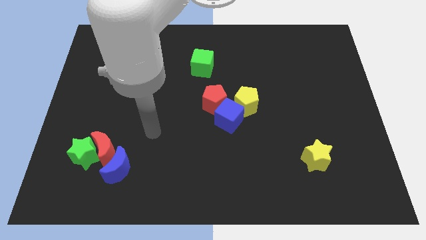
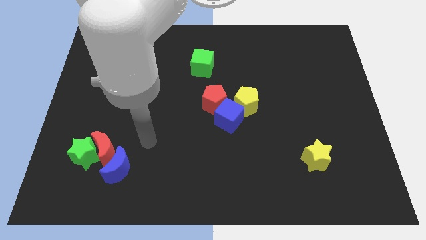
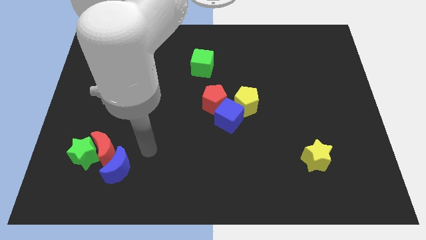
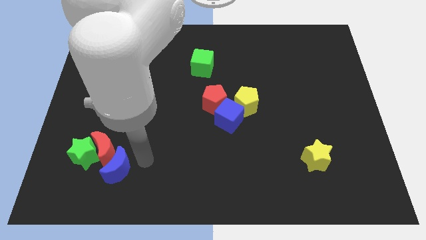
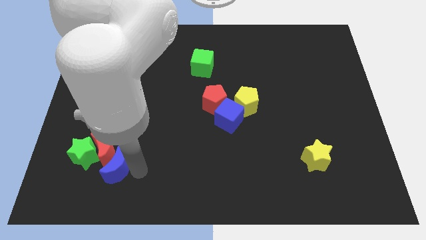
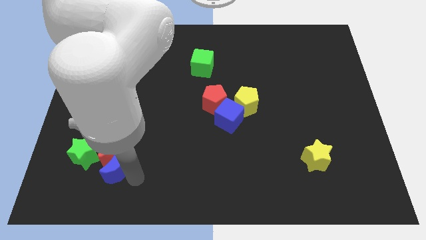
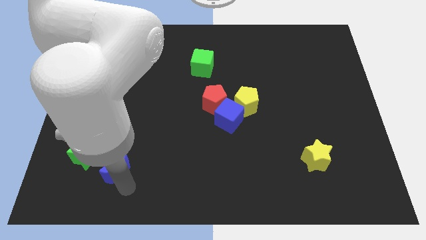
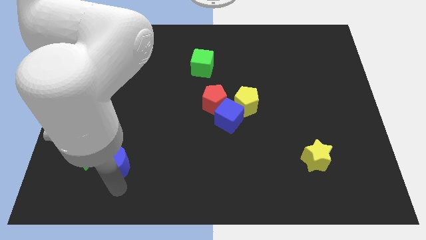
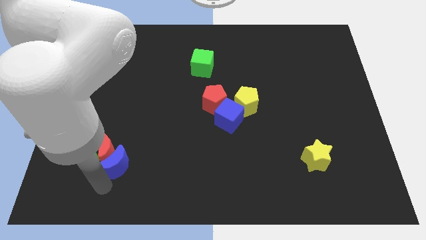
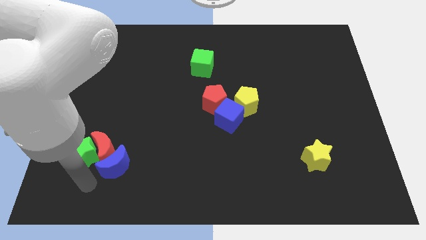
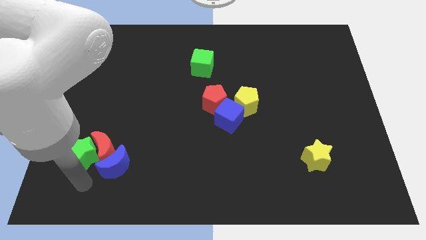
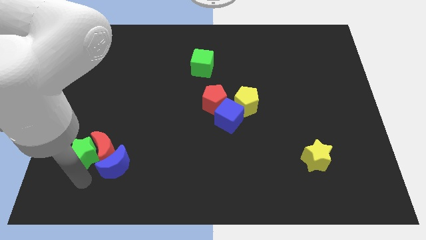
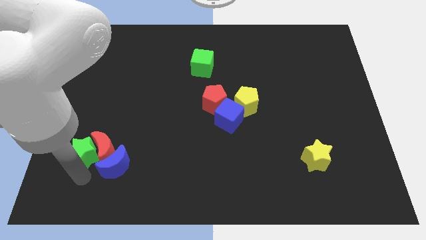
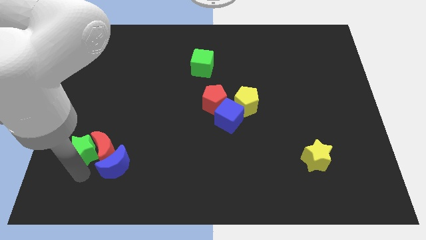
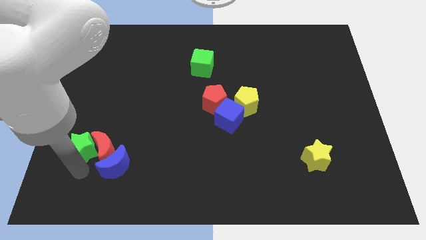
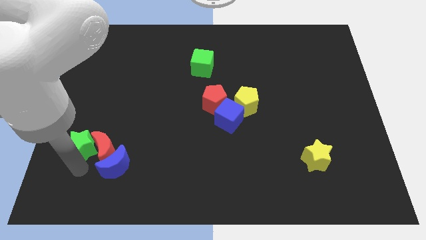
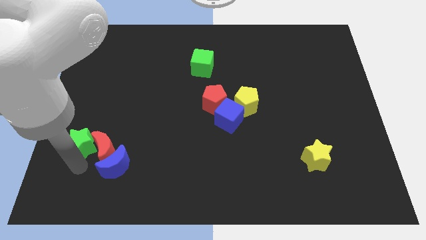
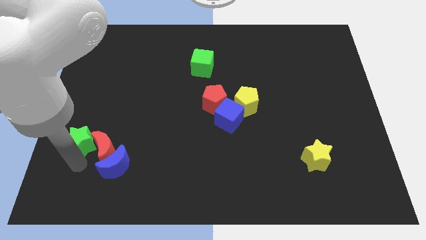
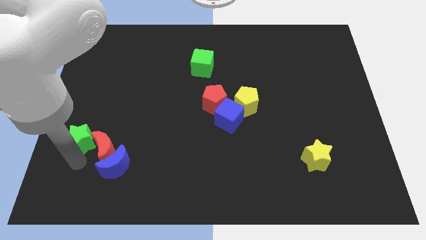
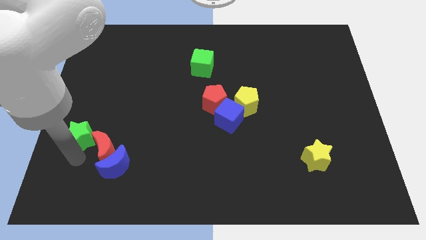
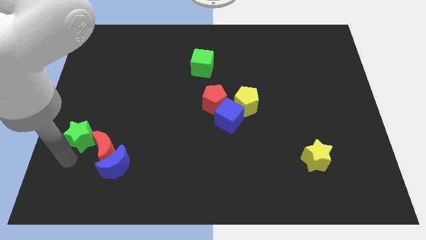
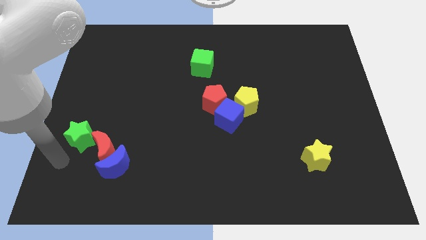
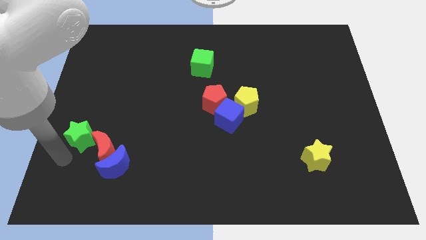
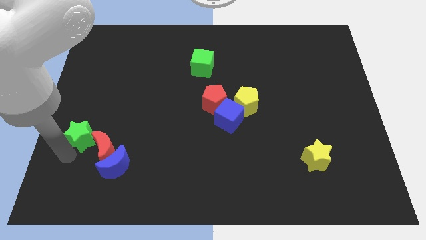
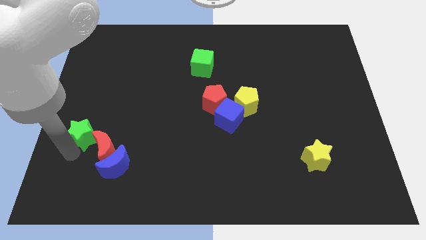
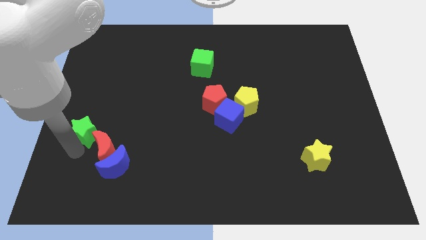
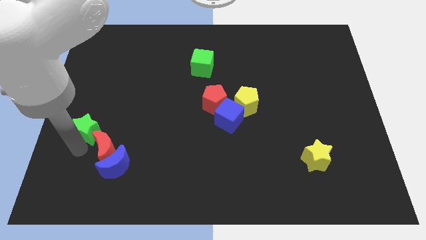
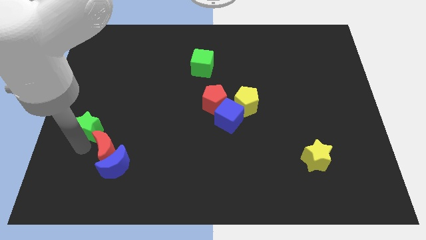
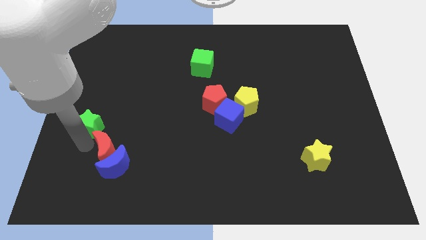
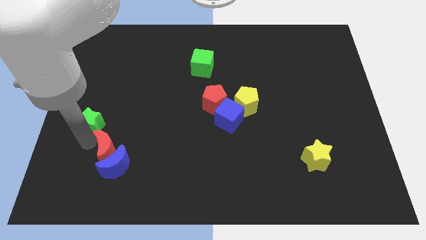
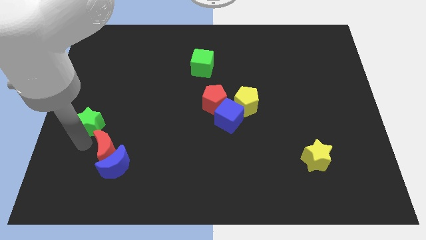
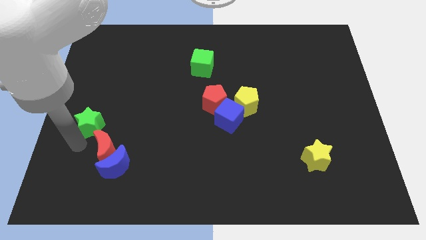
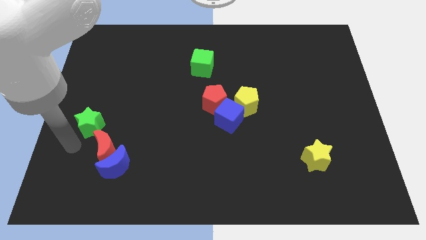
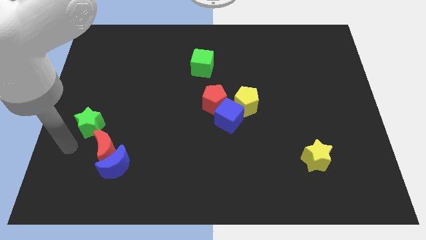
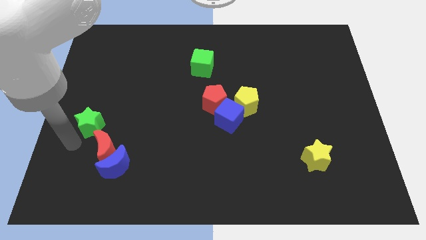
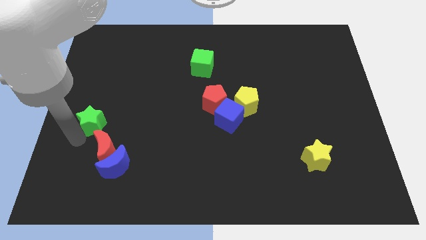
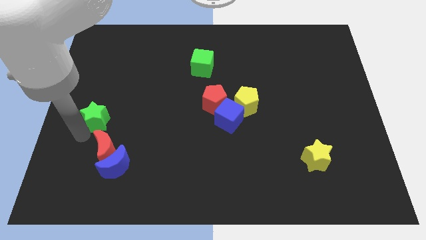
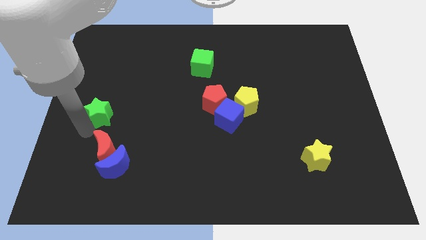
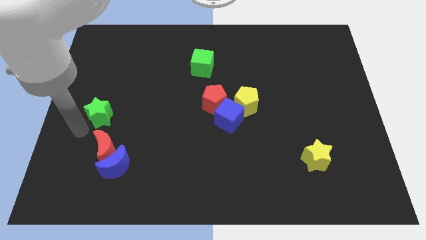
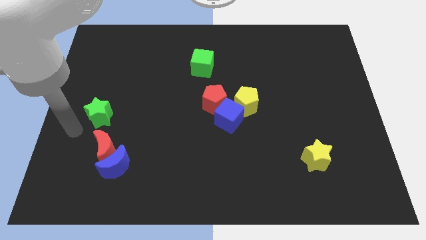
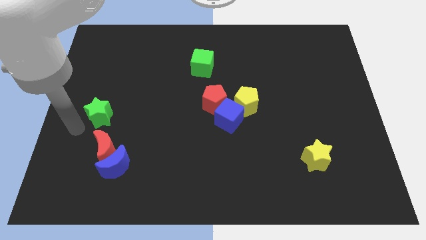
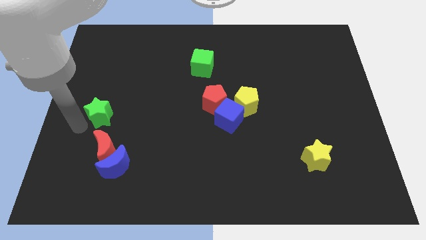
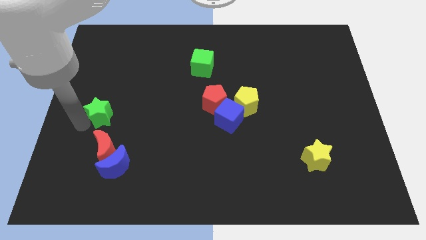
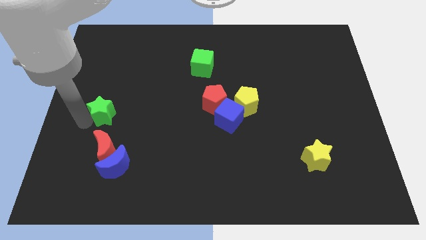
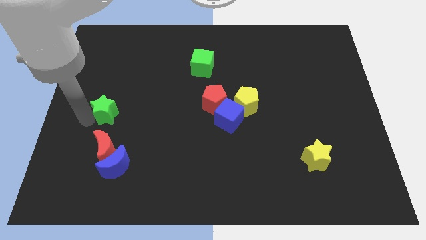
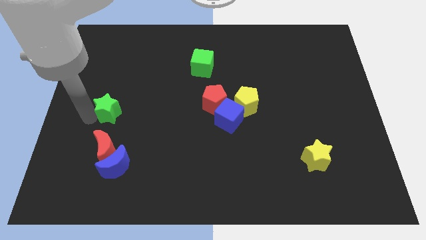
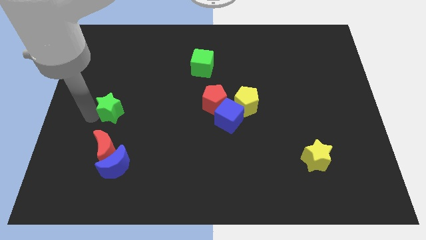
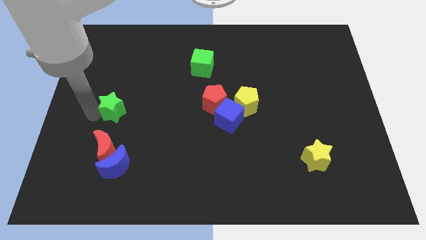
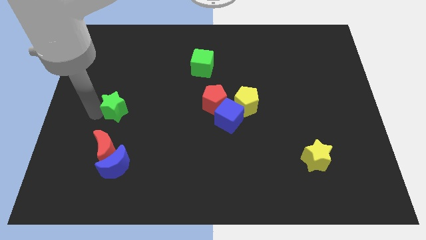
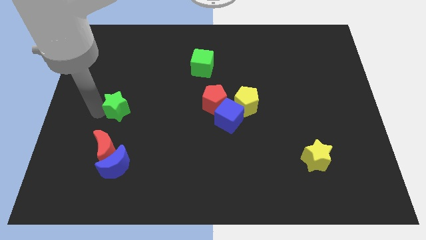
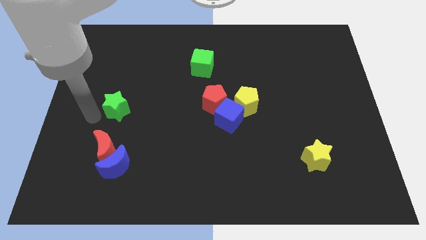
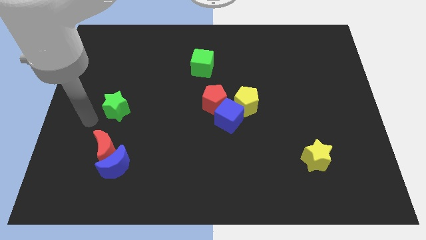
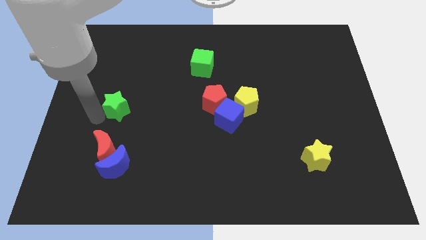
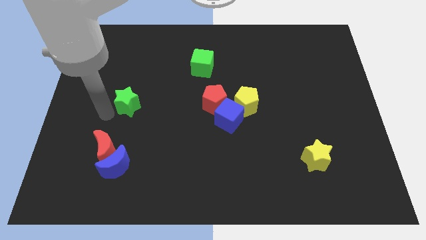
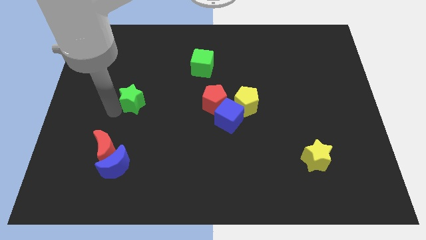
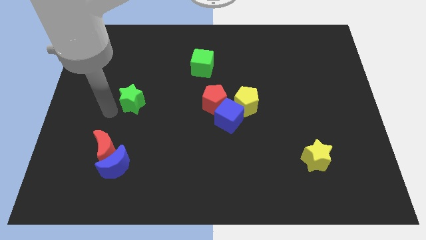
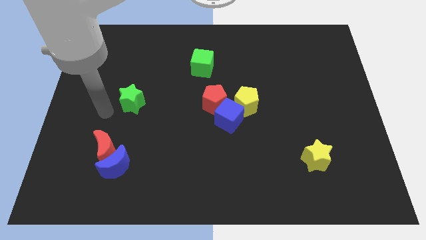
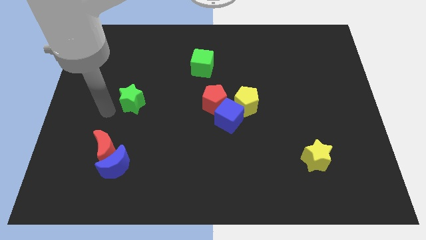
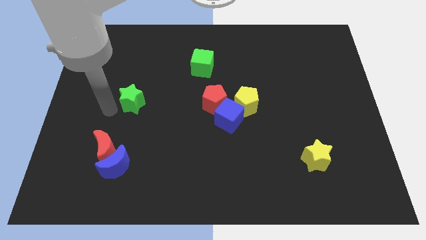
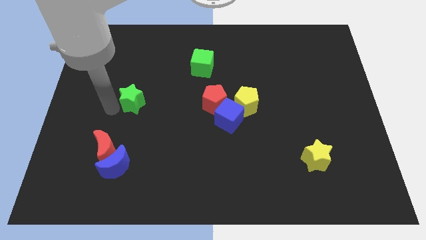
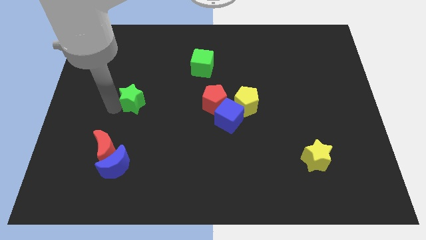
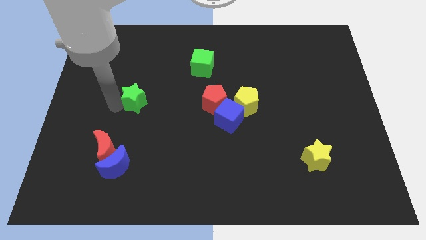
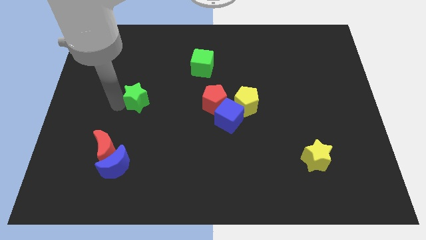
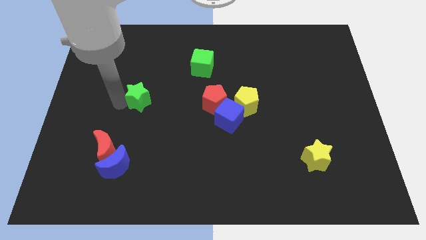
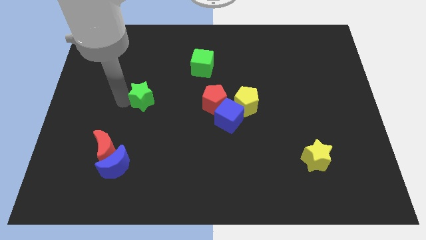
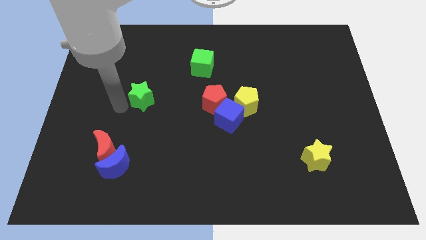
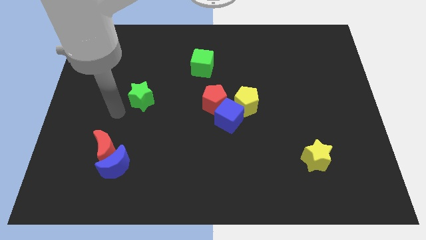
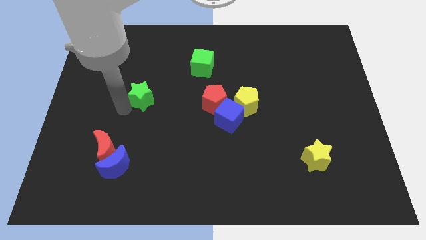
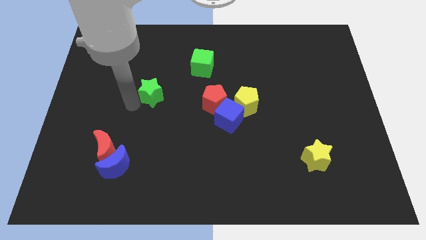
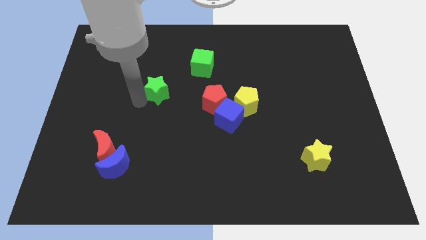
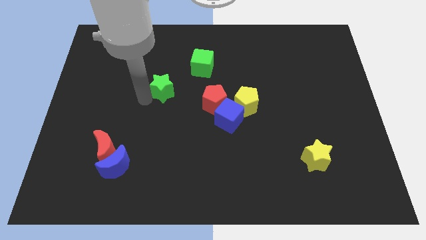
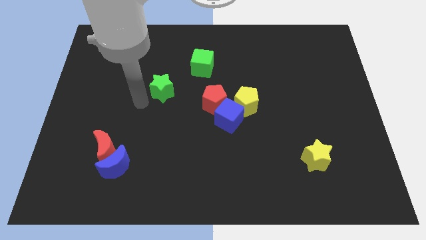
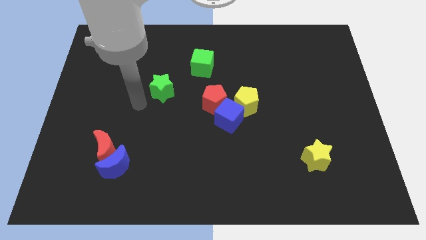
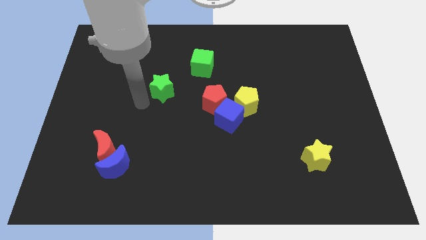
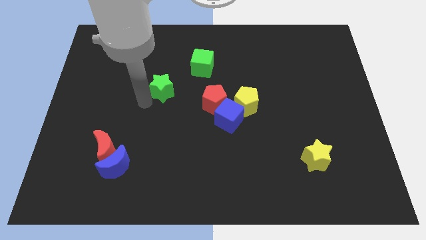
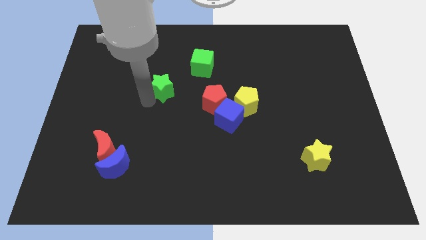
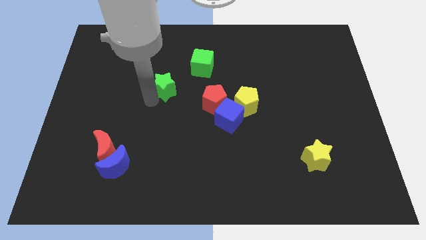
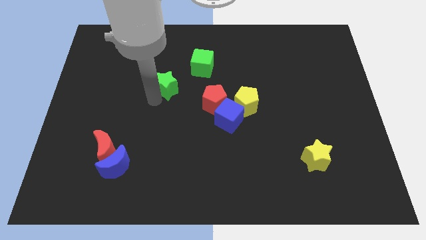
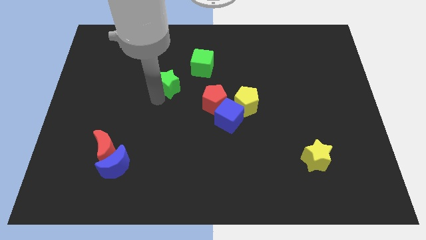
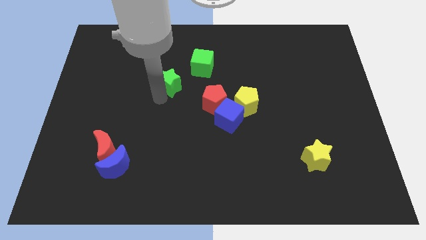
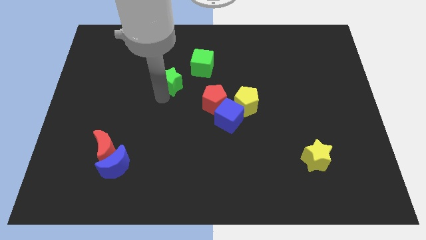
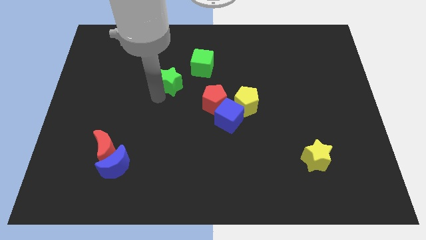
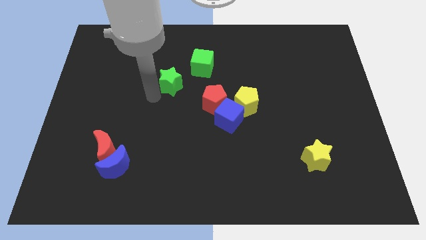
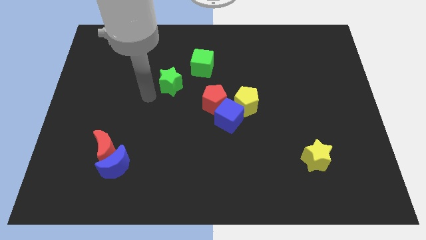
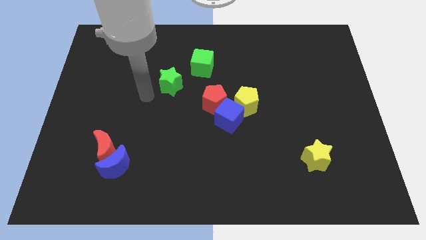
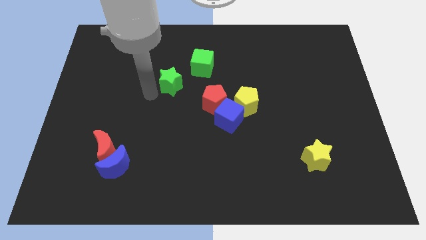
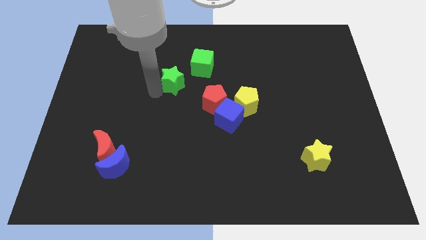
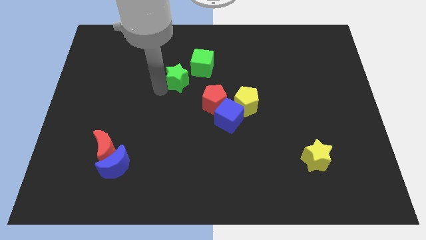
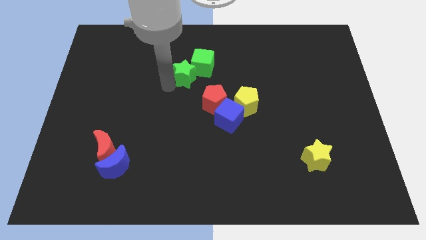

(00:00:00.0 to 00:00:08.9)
push the green star next to the green cube
